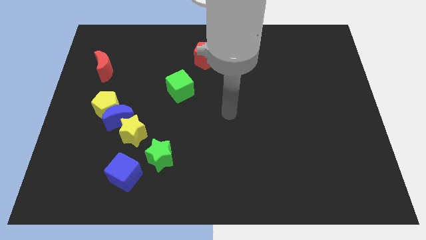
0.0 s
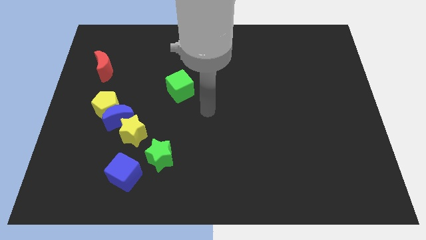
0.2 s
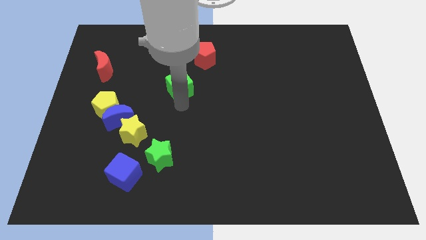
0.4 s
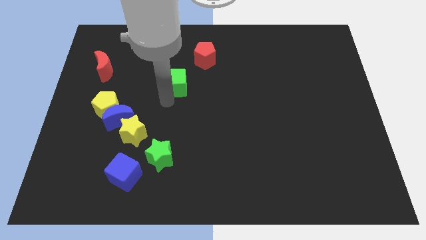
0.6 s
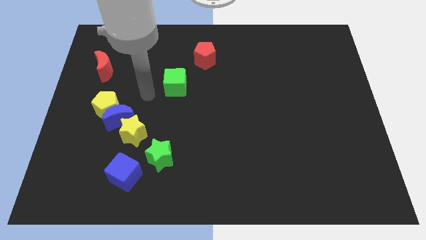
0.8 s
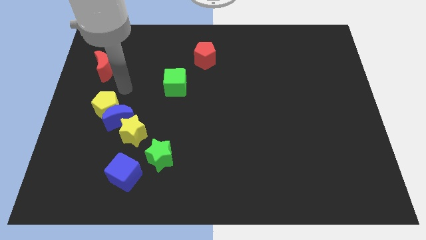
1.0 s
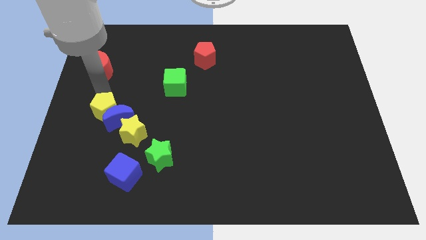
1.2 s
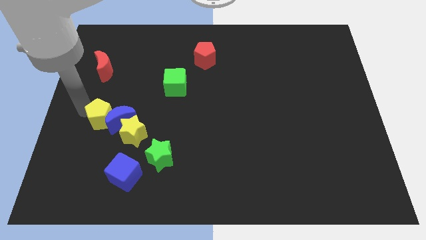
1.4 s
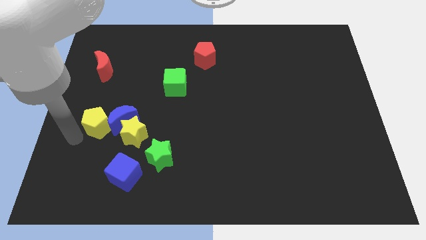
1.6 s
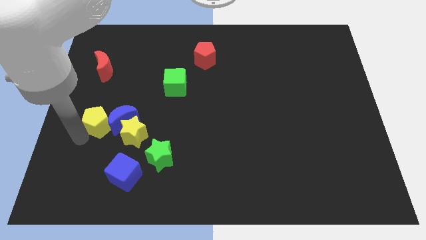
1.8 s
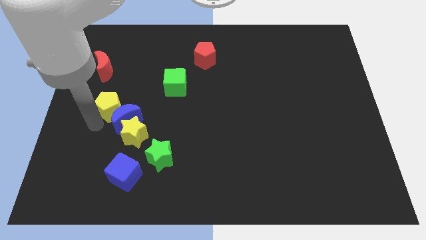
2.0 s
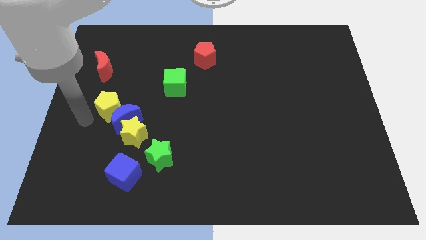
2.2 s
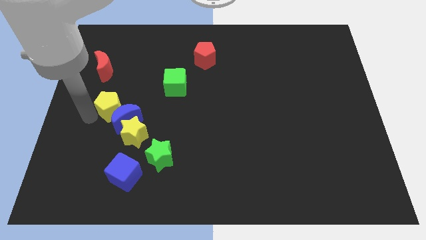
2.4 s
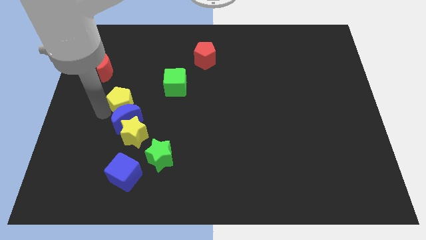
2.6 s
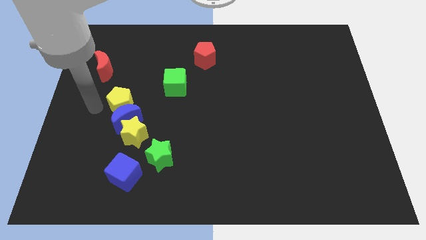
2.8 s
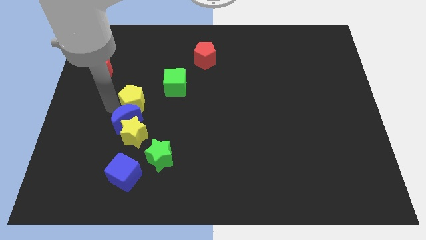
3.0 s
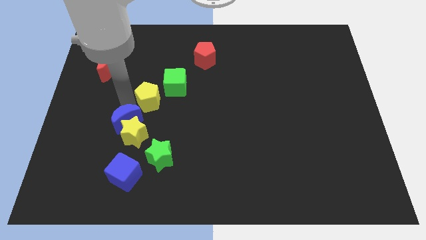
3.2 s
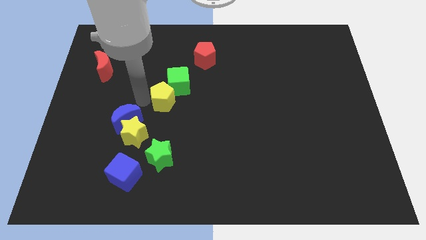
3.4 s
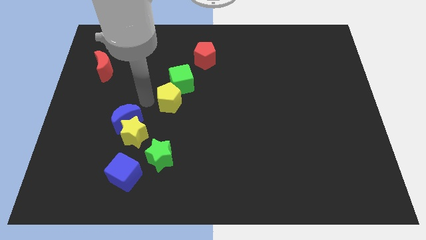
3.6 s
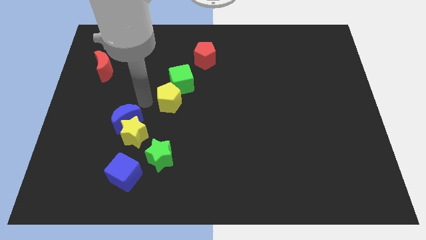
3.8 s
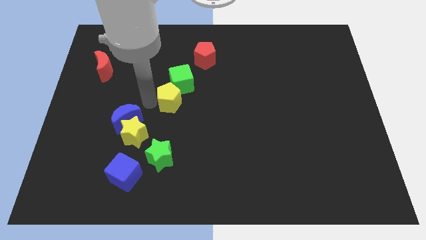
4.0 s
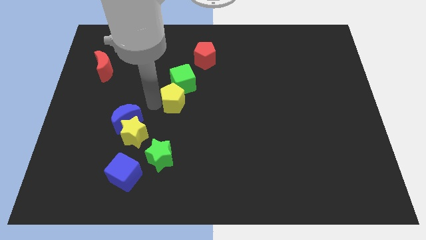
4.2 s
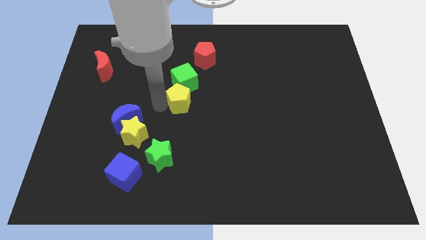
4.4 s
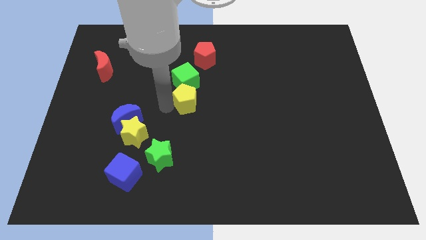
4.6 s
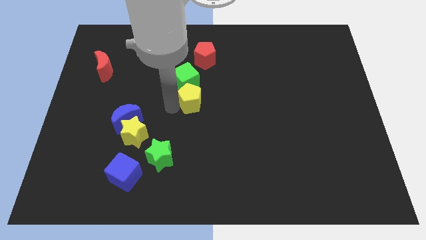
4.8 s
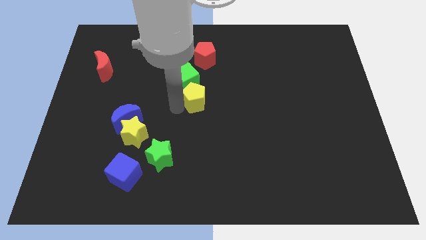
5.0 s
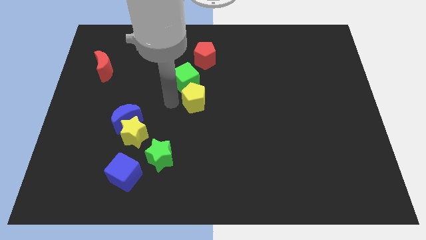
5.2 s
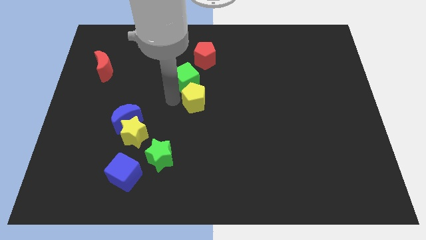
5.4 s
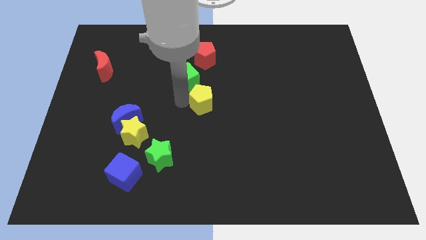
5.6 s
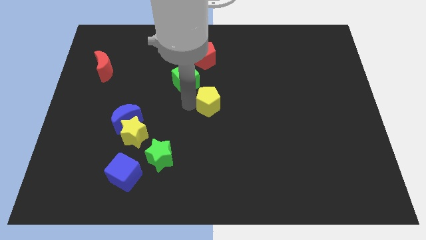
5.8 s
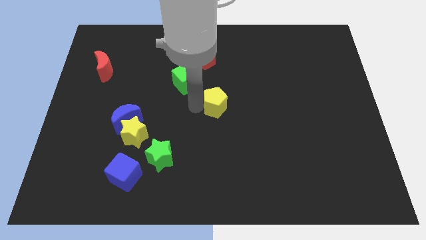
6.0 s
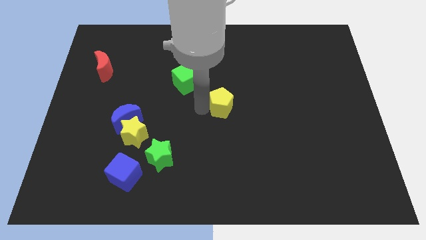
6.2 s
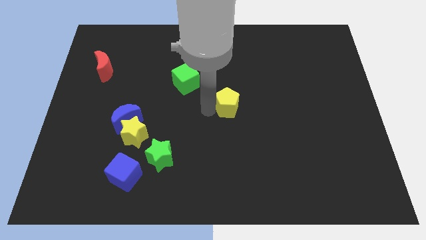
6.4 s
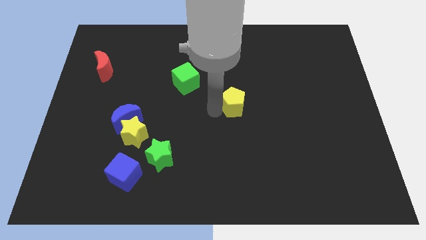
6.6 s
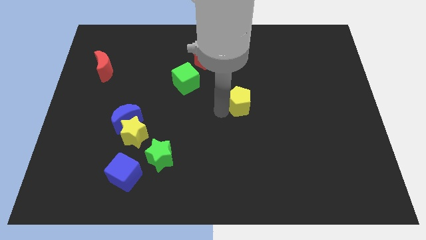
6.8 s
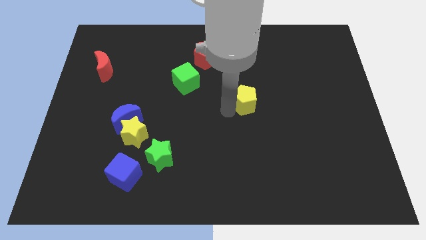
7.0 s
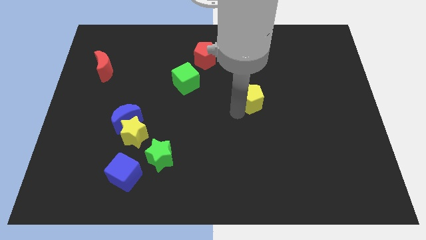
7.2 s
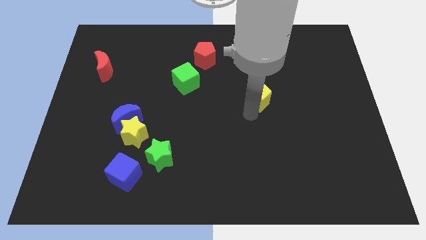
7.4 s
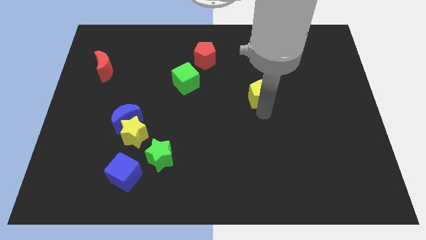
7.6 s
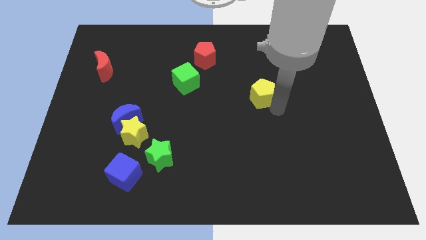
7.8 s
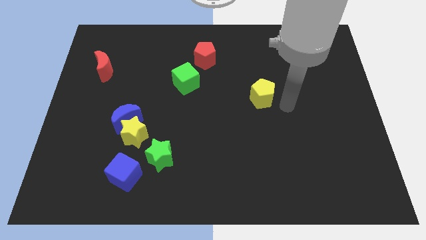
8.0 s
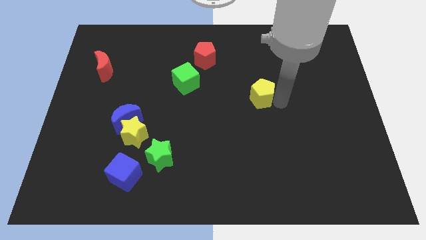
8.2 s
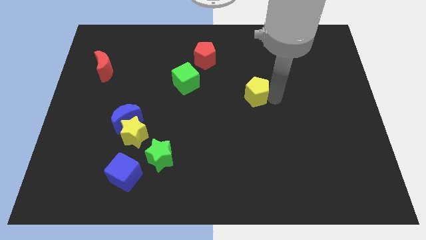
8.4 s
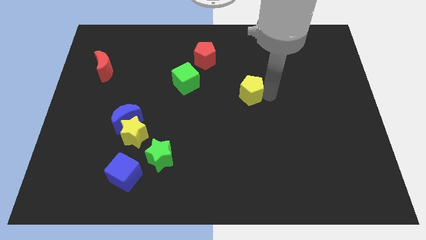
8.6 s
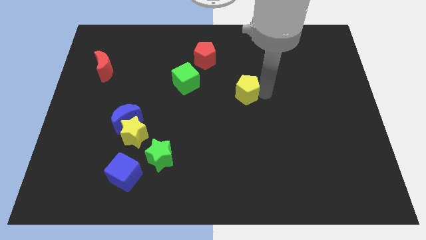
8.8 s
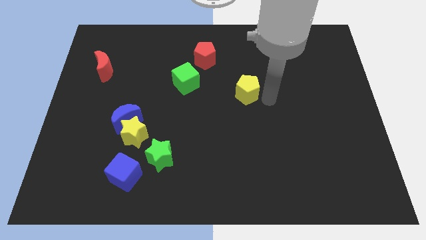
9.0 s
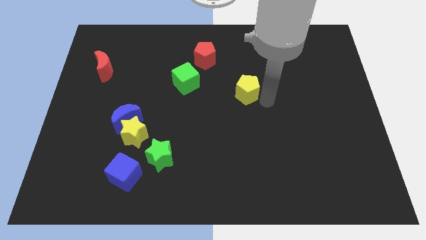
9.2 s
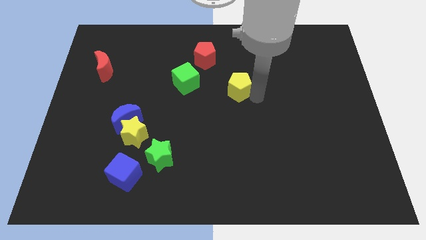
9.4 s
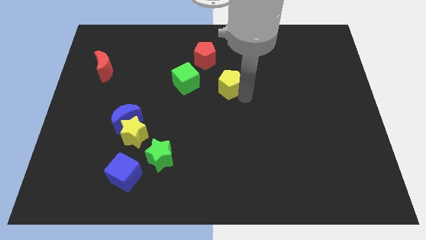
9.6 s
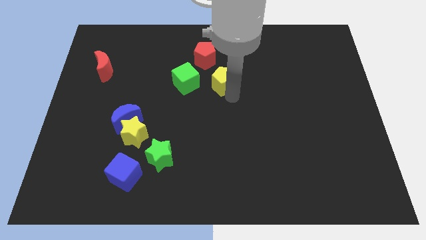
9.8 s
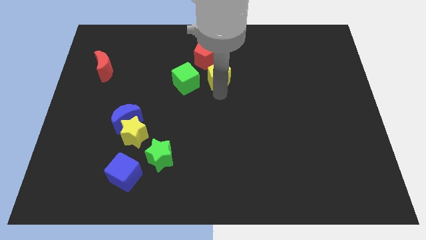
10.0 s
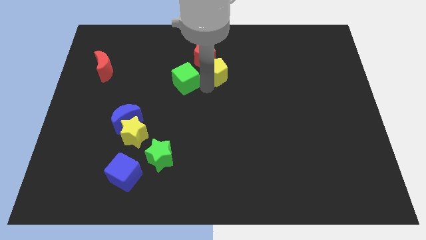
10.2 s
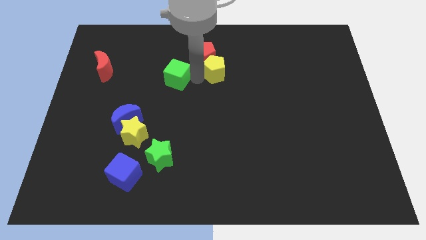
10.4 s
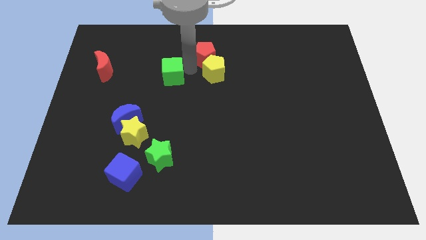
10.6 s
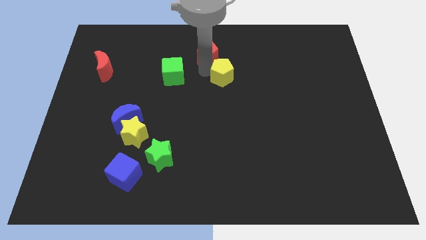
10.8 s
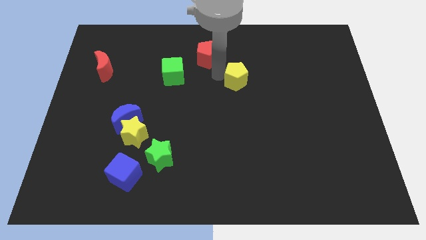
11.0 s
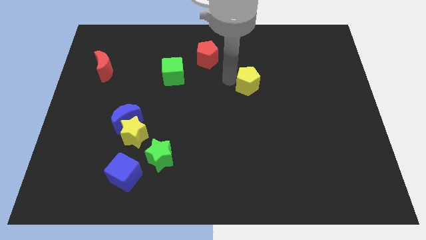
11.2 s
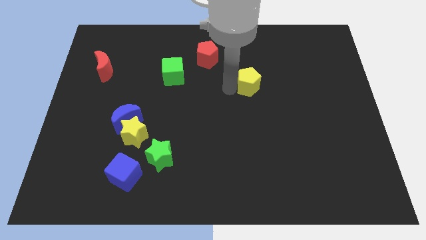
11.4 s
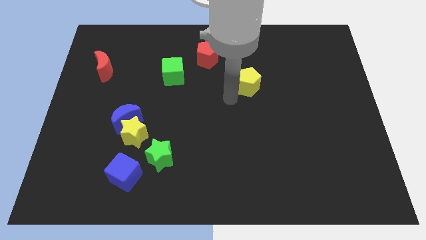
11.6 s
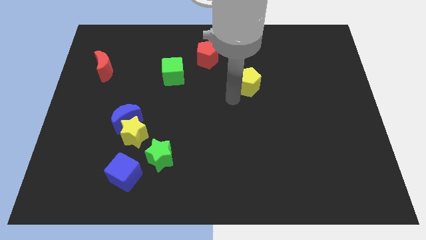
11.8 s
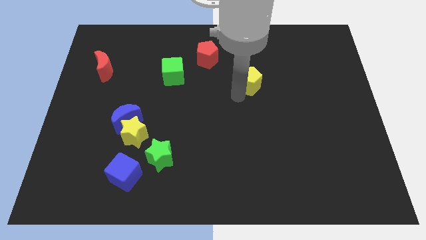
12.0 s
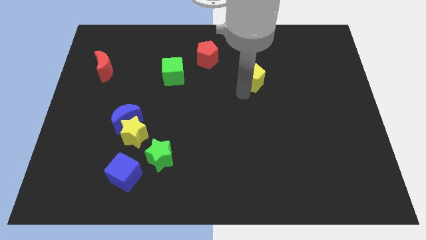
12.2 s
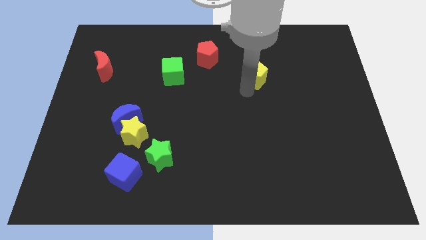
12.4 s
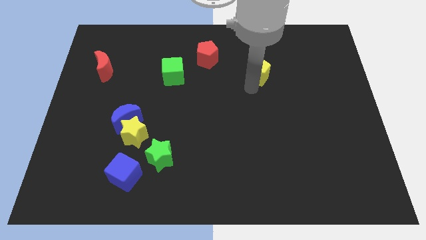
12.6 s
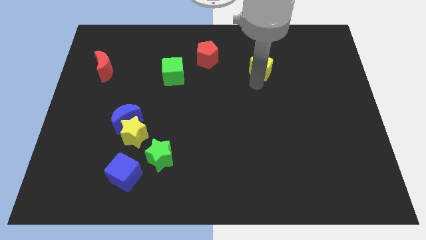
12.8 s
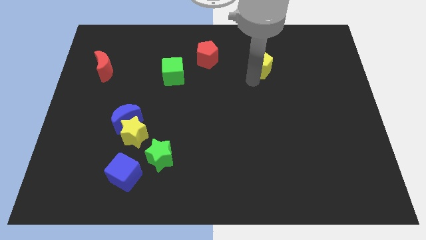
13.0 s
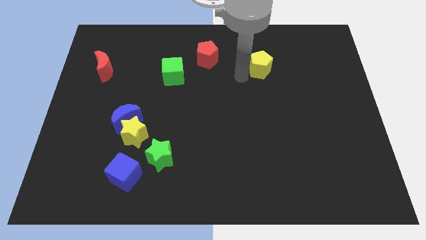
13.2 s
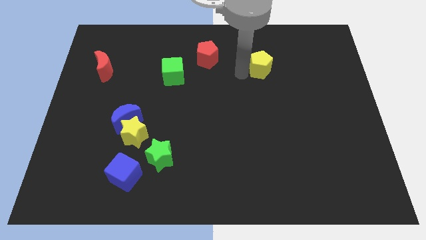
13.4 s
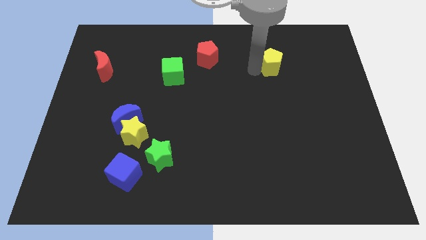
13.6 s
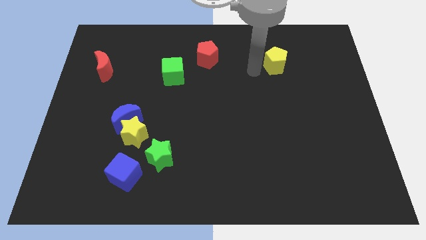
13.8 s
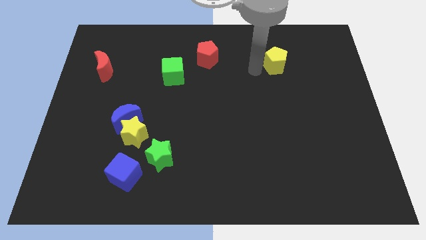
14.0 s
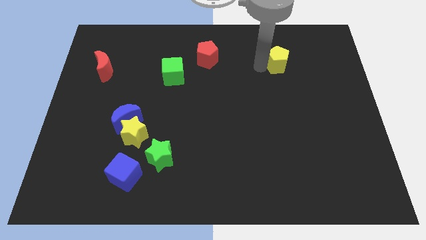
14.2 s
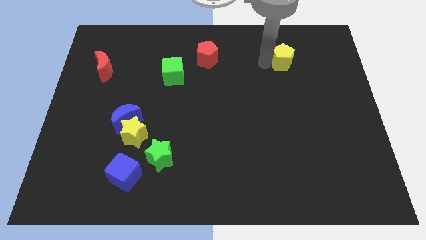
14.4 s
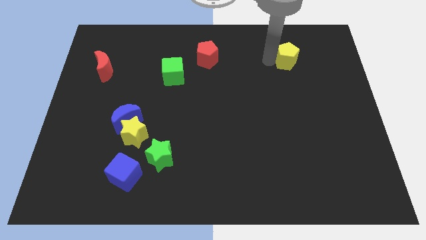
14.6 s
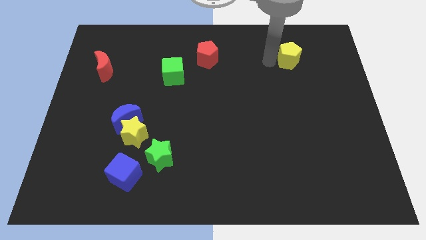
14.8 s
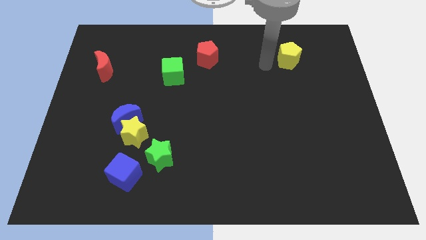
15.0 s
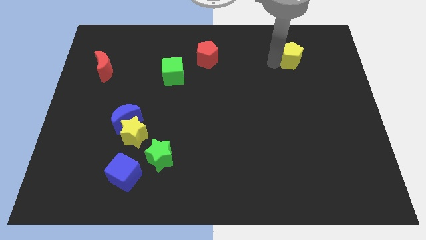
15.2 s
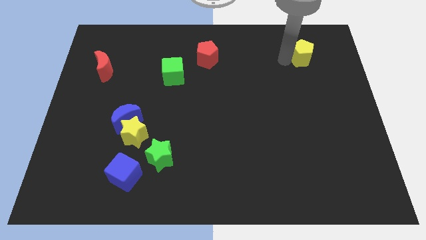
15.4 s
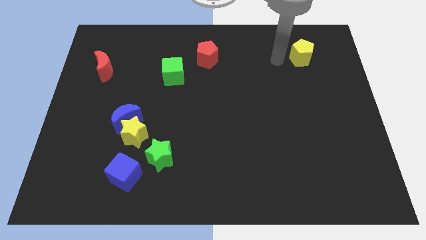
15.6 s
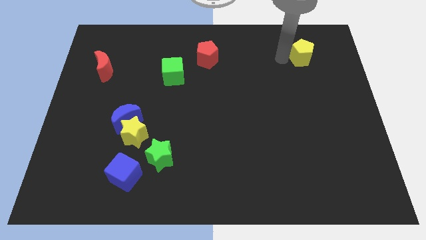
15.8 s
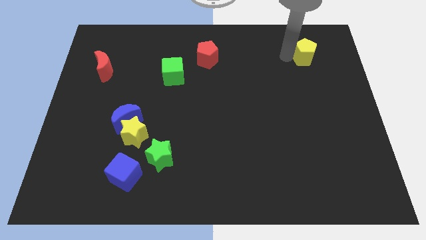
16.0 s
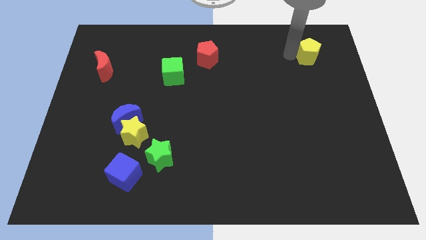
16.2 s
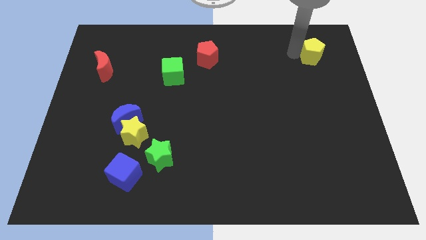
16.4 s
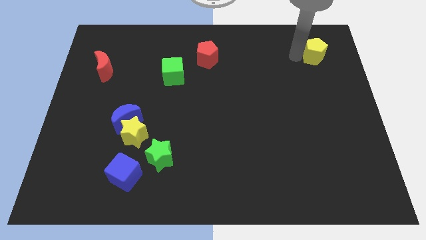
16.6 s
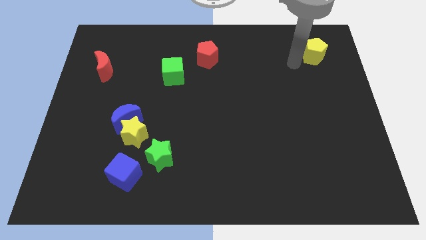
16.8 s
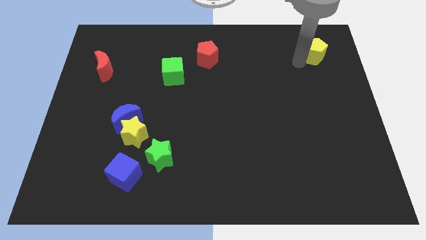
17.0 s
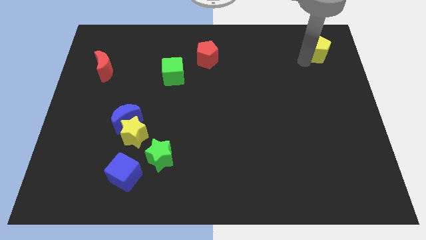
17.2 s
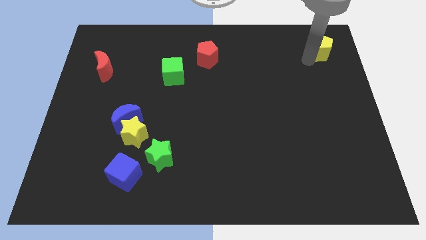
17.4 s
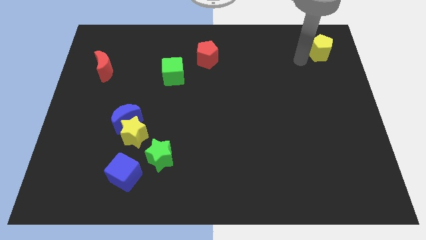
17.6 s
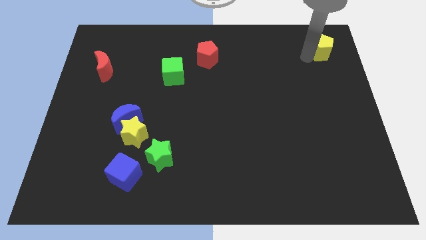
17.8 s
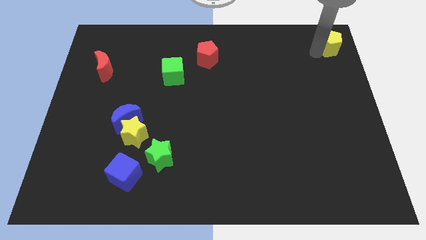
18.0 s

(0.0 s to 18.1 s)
push the yellow pentagon to the top right corner
